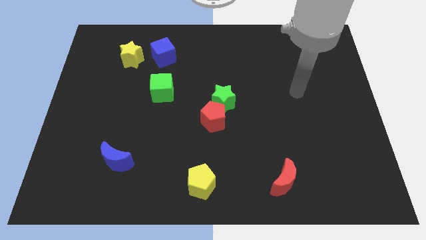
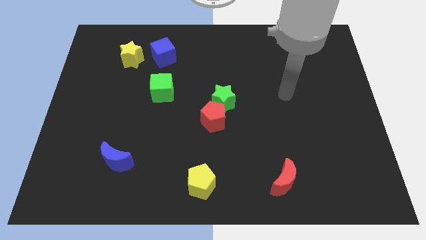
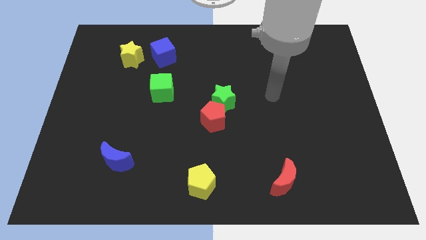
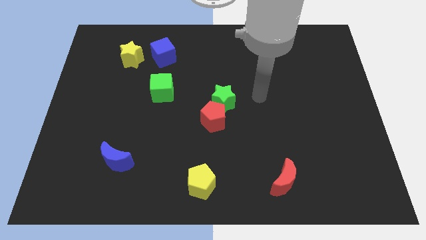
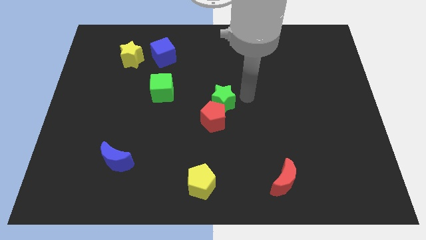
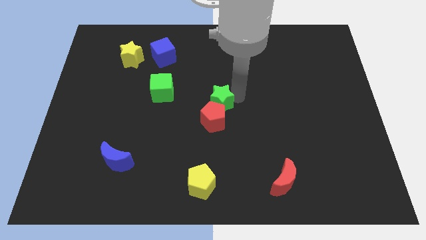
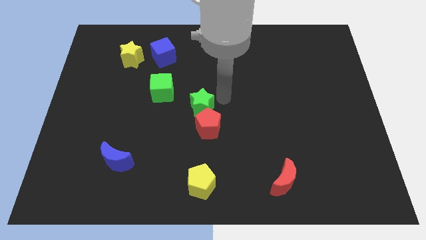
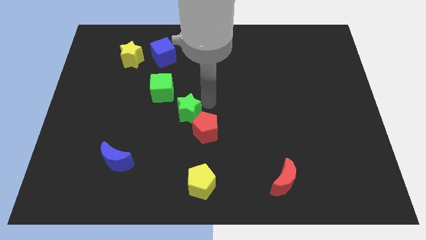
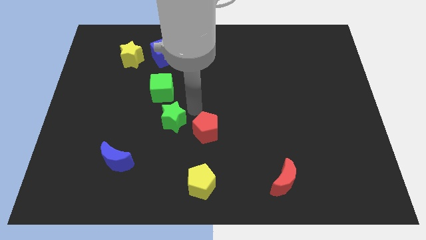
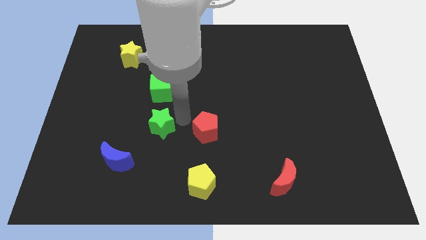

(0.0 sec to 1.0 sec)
move the red pentagon away from the green star

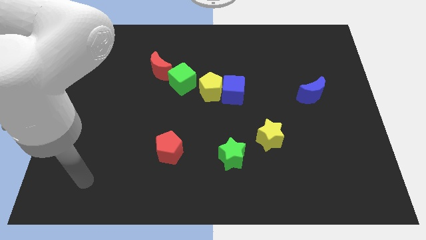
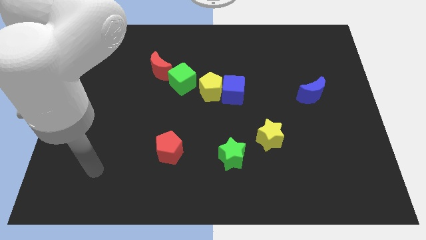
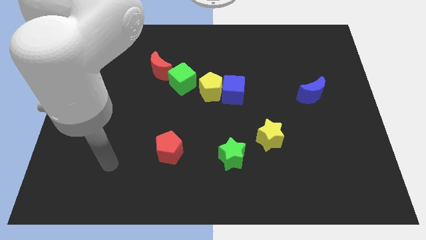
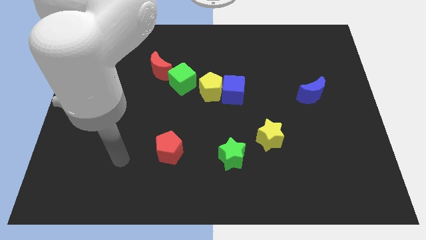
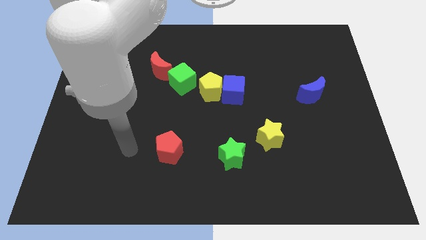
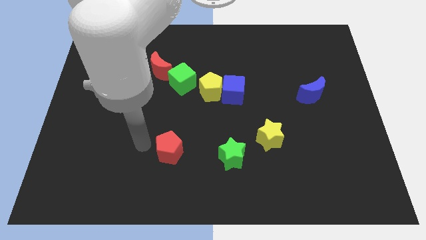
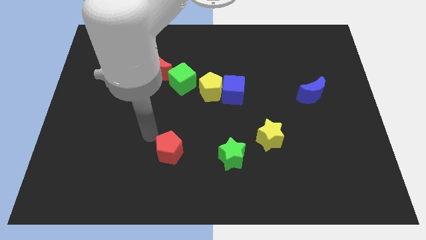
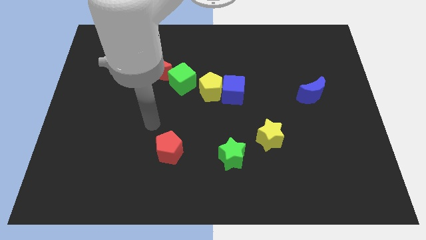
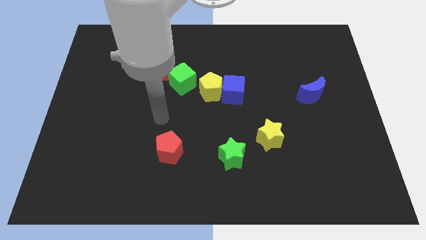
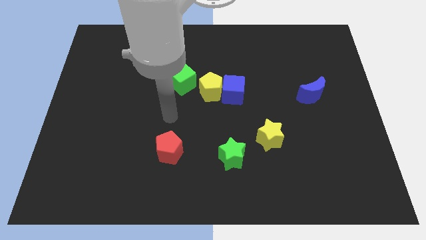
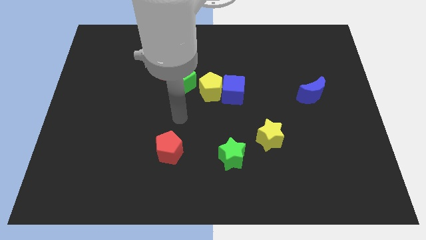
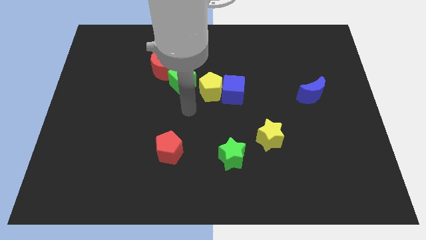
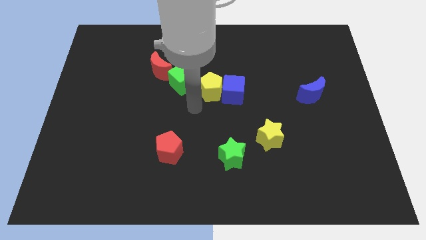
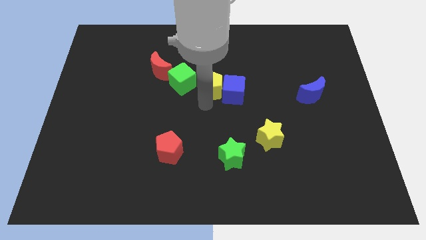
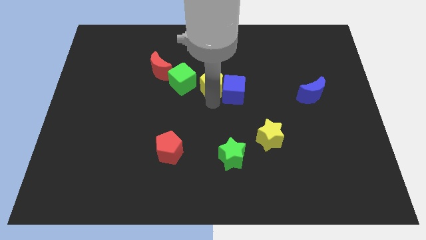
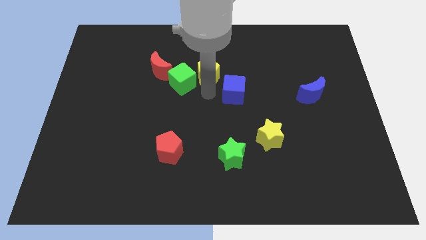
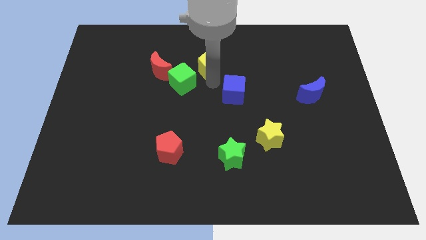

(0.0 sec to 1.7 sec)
move the blue cube away from the yellow pentagon

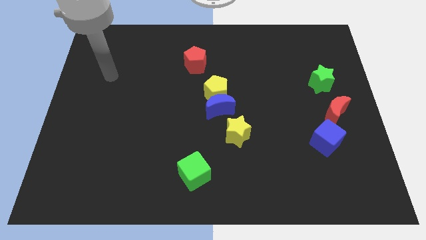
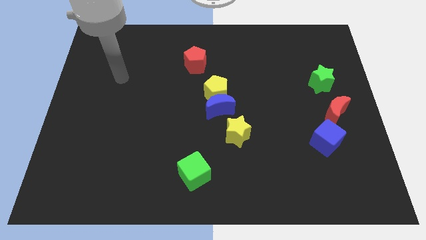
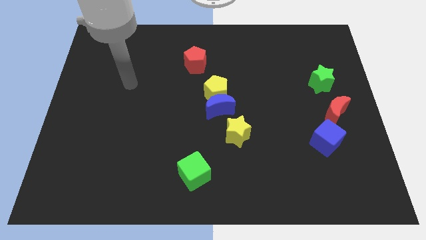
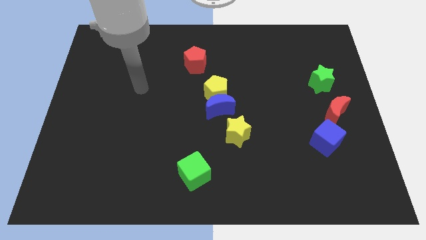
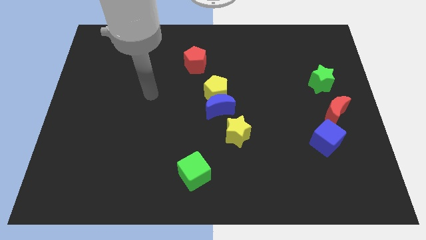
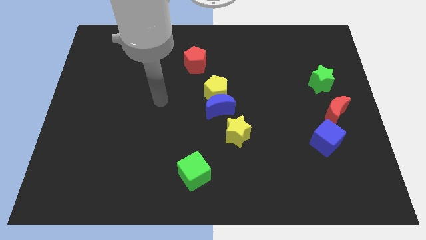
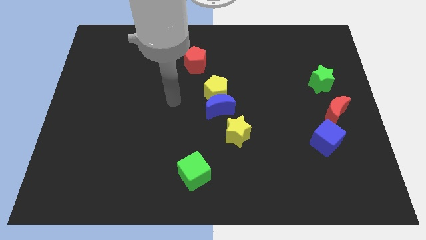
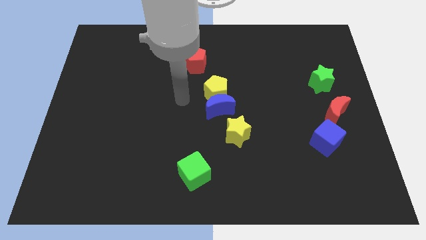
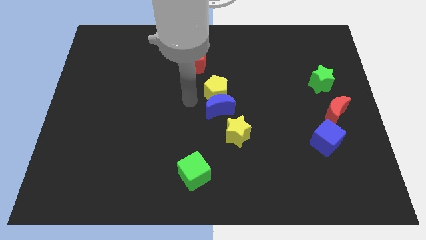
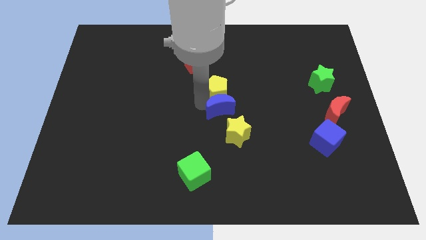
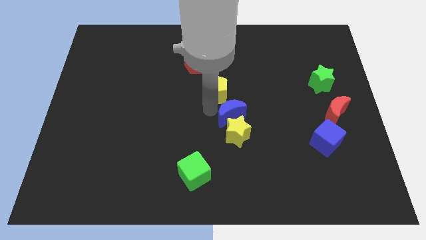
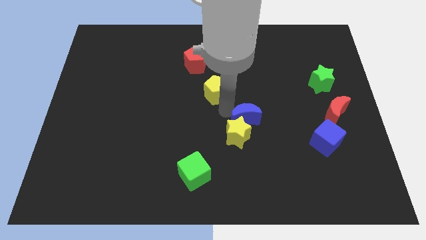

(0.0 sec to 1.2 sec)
separate the yellow pentagon from the blue moon

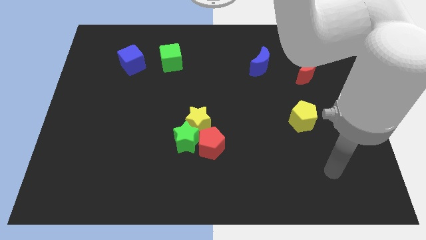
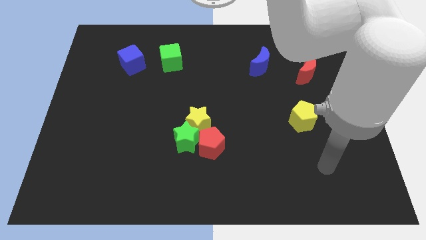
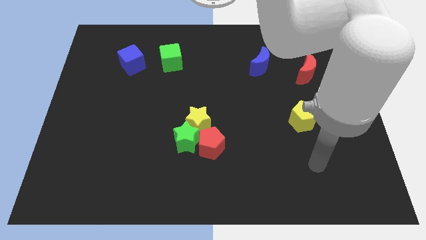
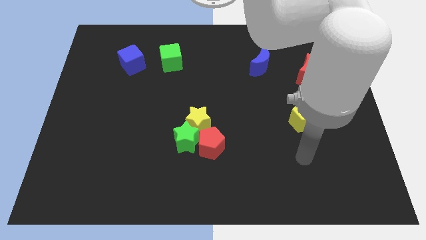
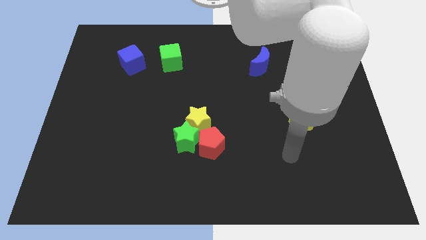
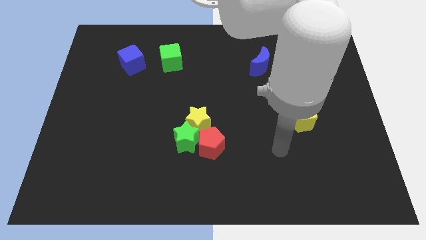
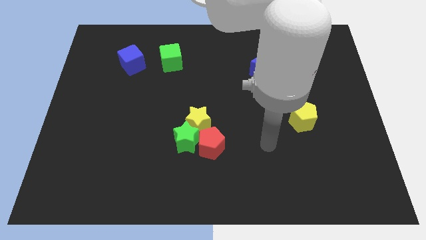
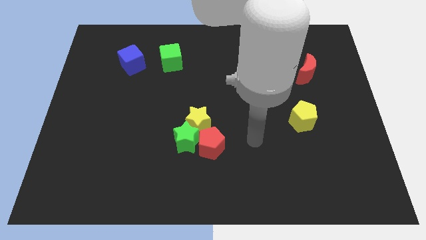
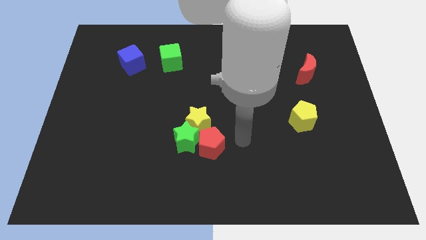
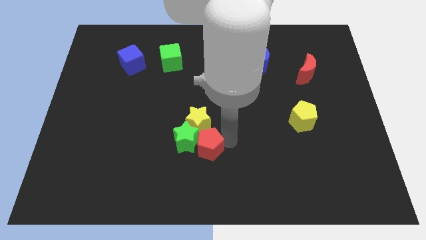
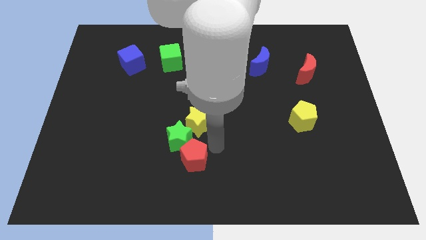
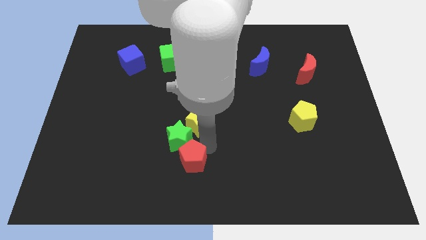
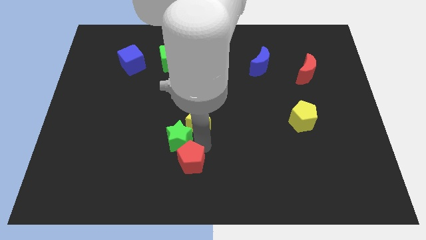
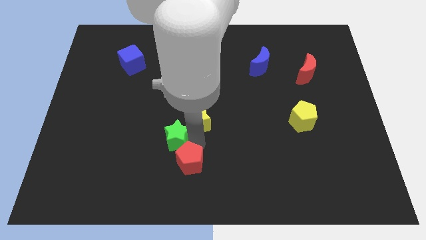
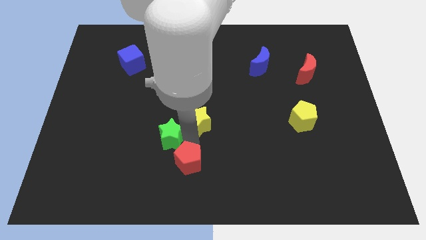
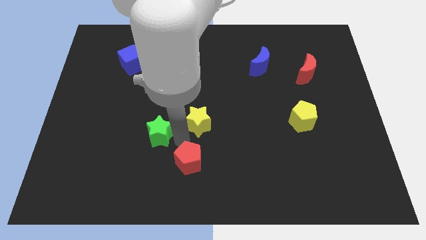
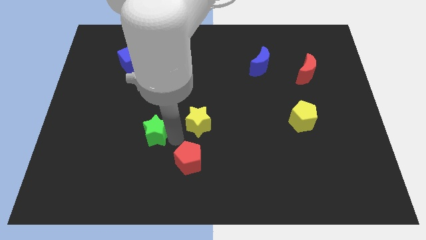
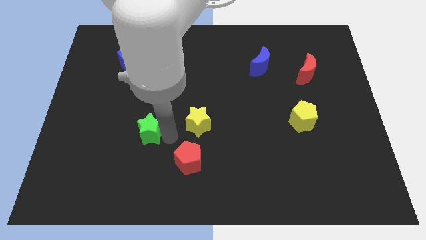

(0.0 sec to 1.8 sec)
move the green star away from the yellow star and red pentagon

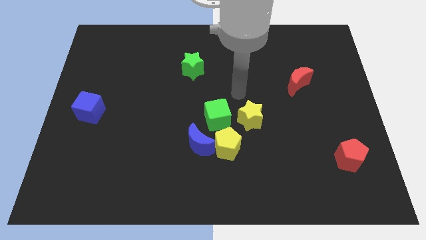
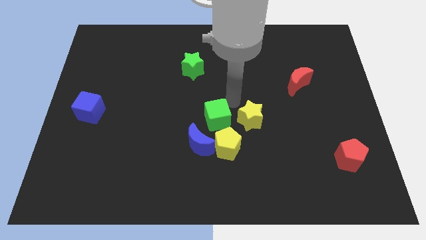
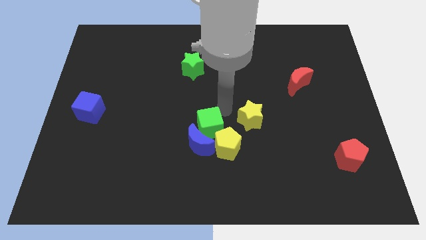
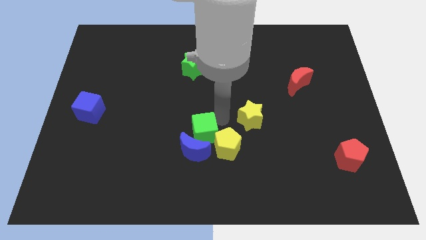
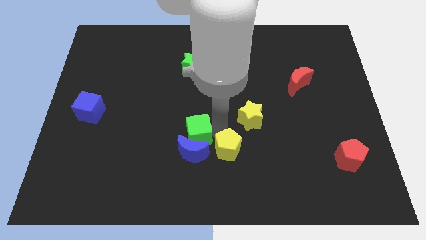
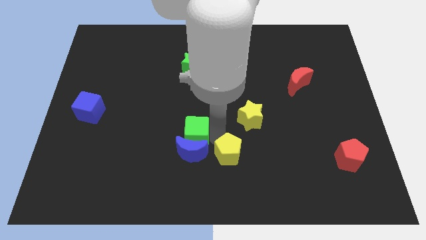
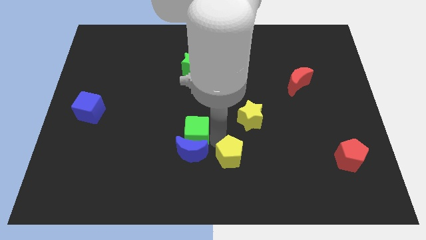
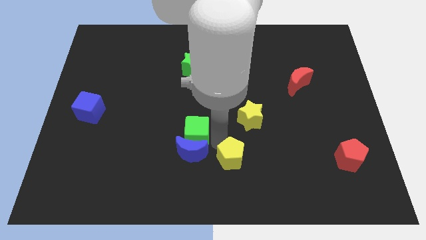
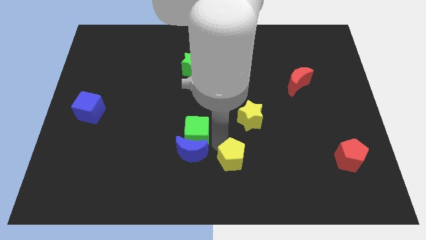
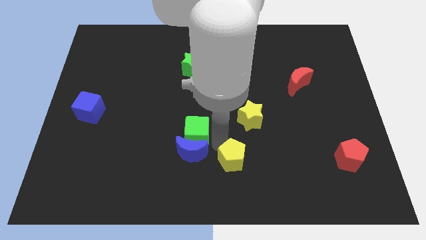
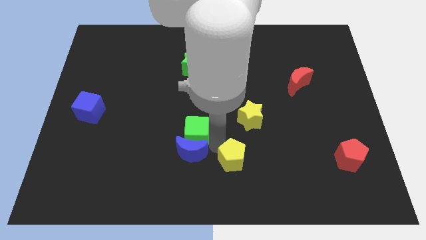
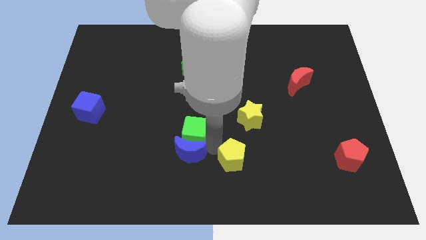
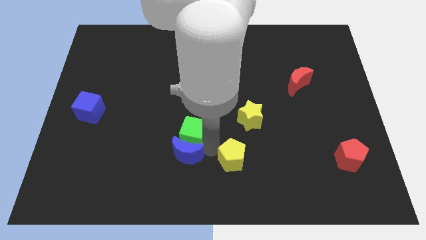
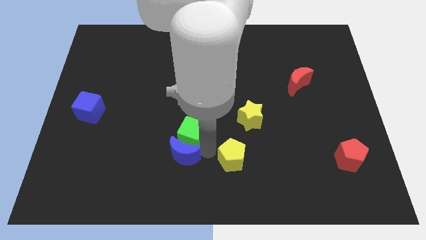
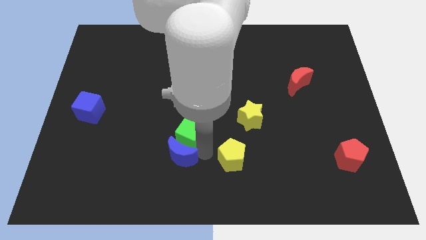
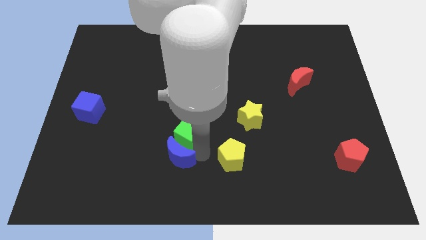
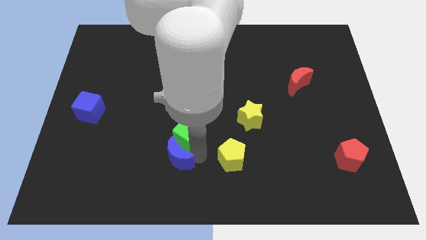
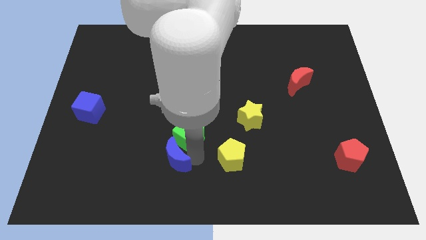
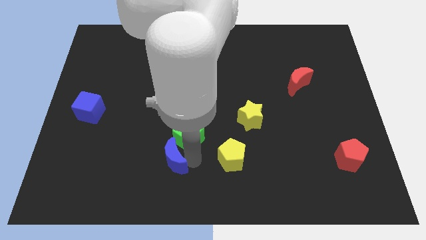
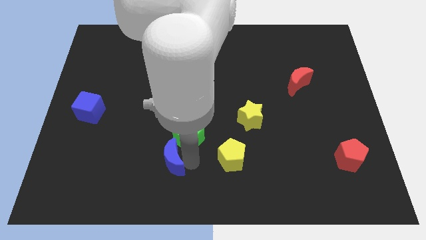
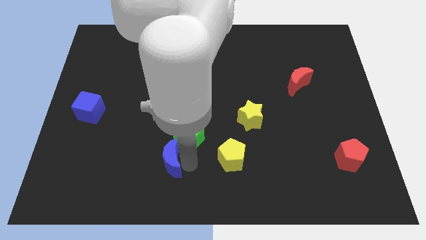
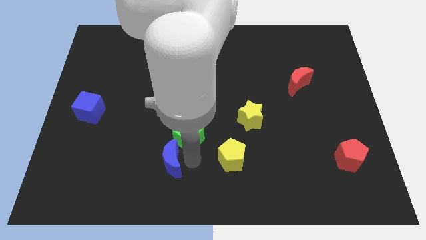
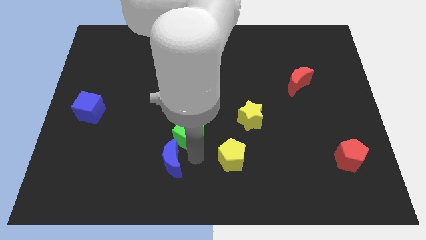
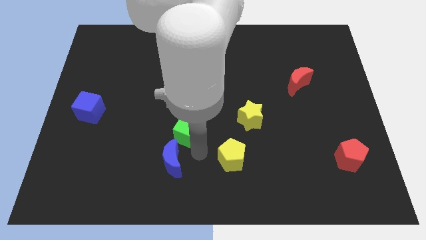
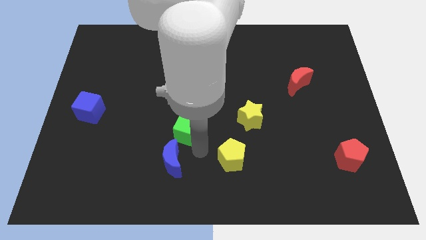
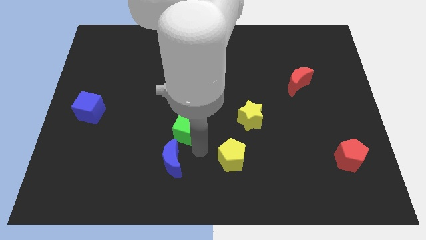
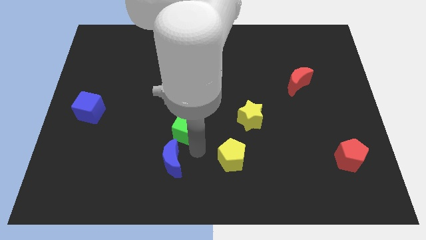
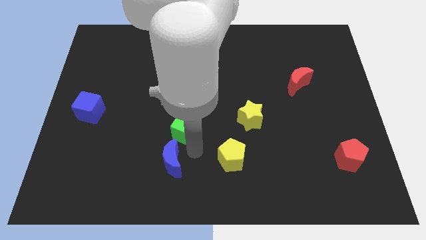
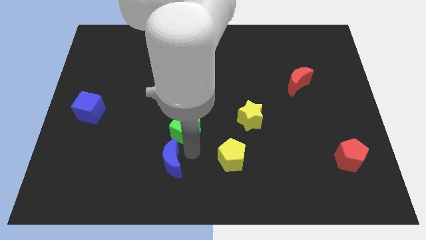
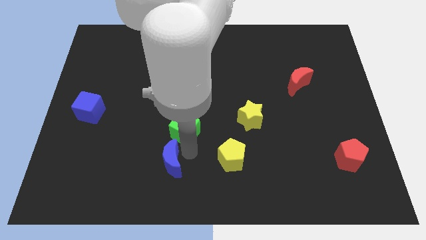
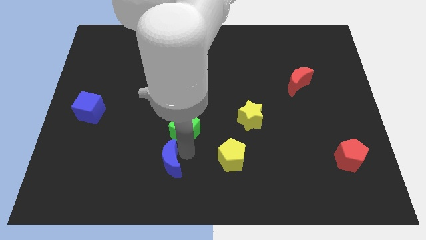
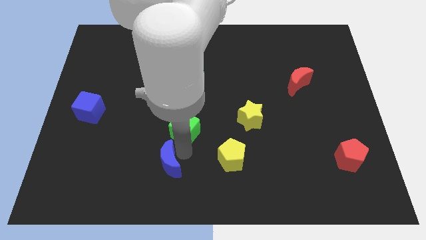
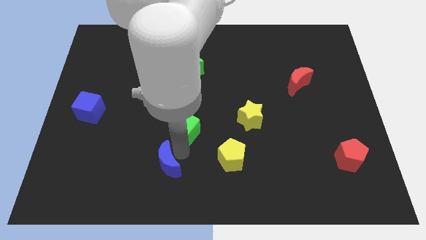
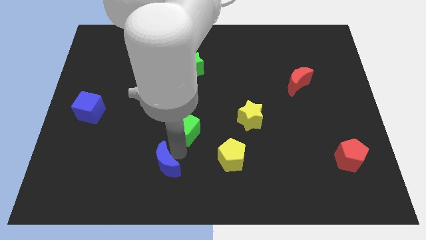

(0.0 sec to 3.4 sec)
separate the blue moon from the yellow pentagon and green cube
